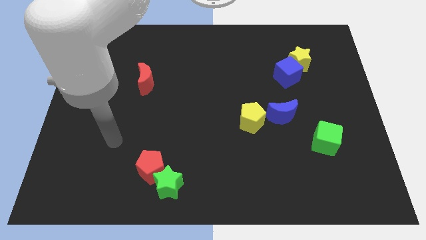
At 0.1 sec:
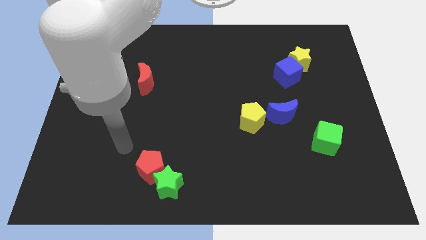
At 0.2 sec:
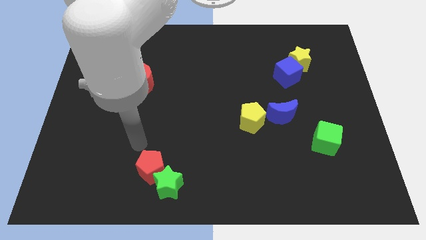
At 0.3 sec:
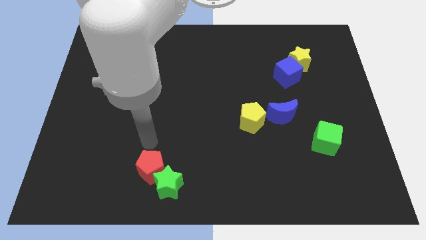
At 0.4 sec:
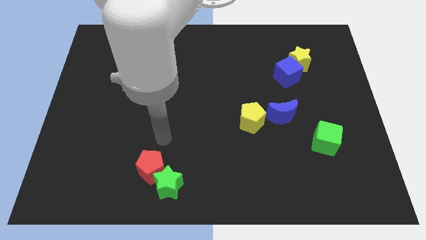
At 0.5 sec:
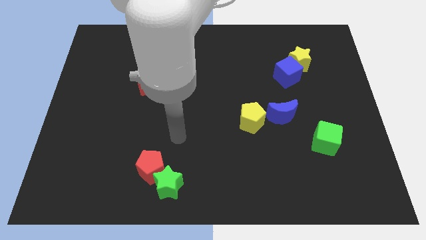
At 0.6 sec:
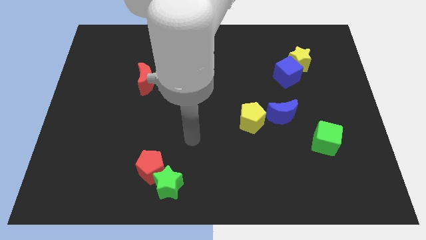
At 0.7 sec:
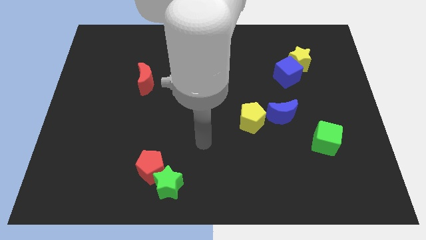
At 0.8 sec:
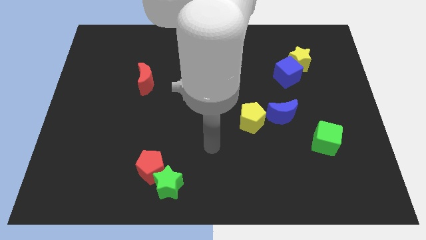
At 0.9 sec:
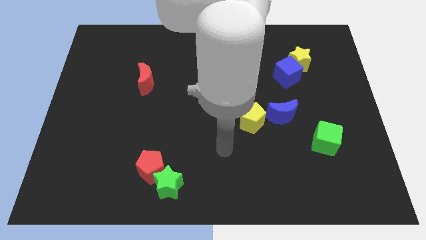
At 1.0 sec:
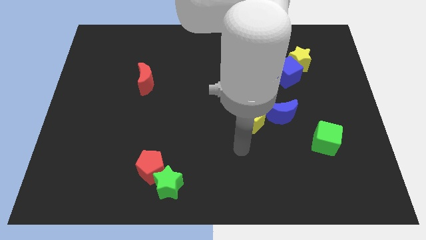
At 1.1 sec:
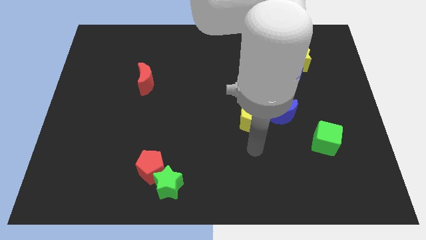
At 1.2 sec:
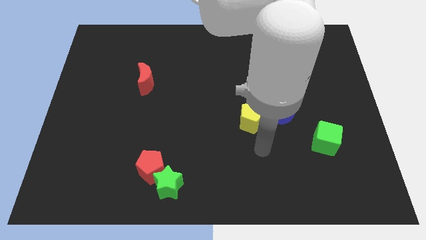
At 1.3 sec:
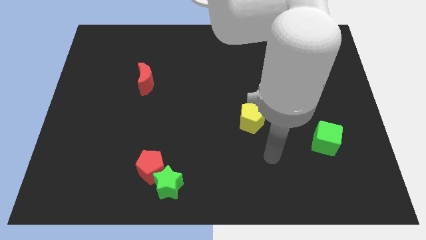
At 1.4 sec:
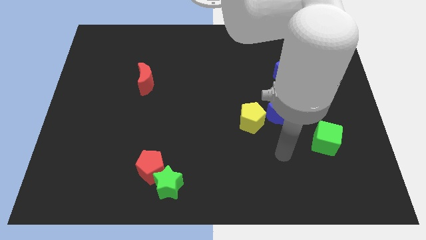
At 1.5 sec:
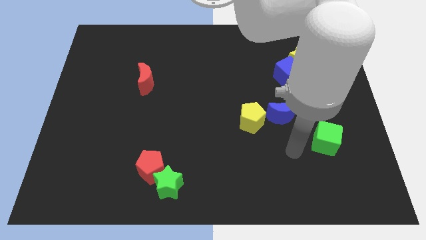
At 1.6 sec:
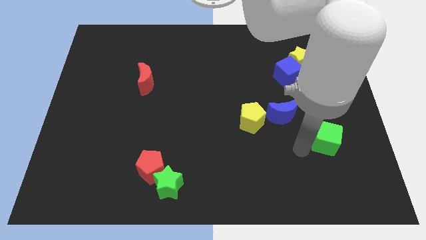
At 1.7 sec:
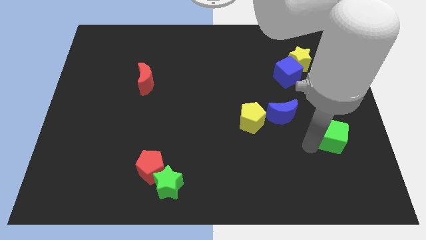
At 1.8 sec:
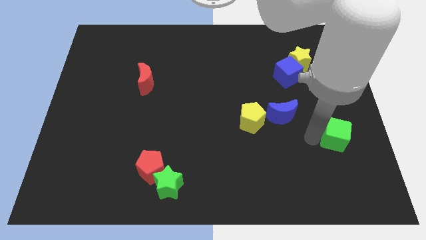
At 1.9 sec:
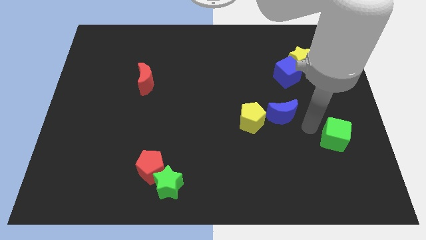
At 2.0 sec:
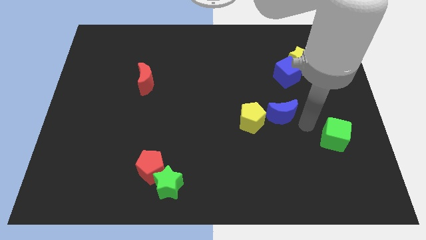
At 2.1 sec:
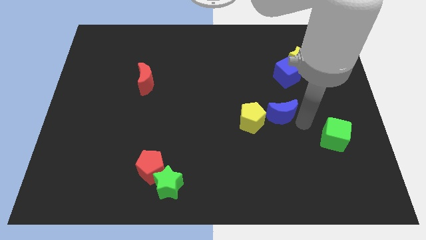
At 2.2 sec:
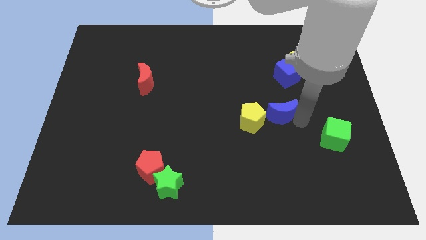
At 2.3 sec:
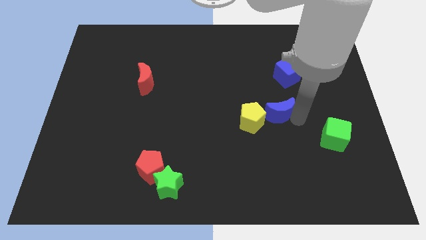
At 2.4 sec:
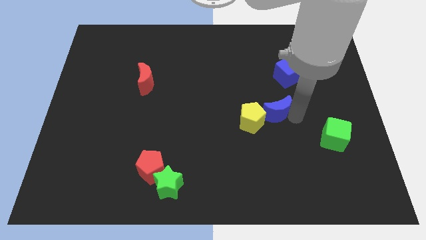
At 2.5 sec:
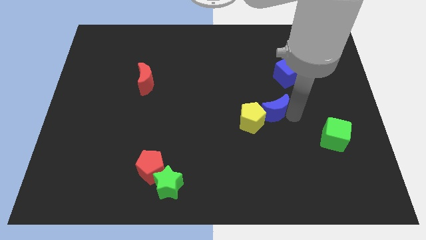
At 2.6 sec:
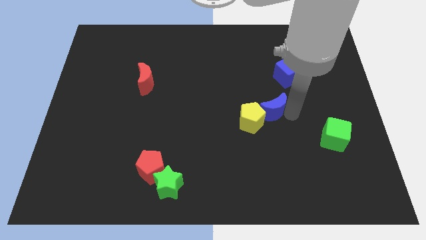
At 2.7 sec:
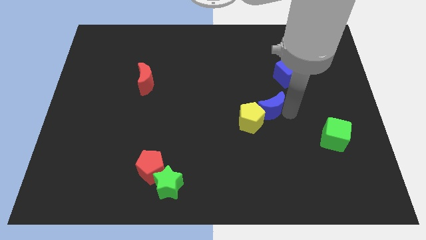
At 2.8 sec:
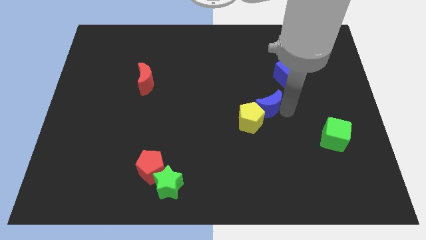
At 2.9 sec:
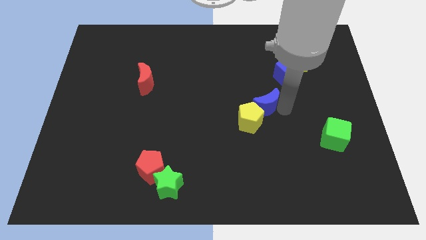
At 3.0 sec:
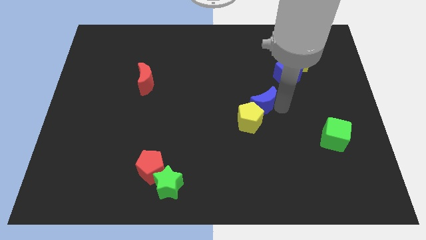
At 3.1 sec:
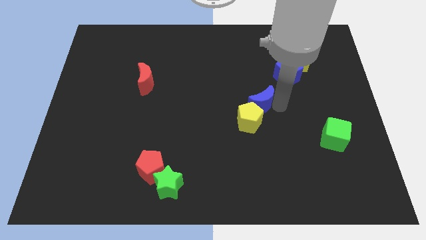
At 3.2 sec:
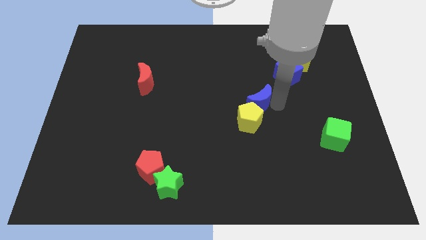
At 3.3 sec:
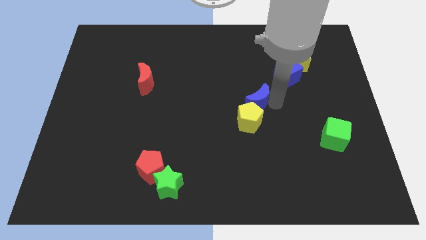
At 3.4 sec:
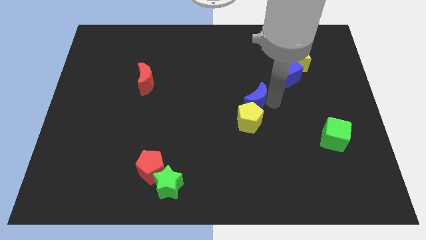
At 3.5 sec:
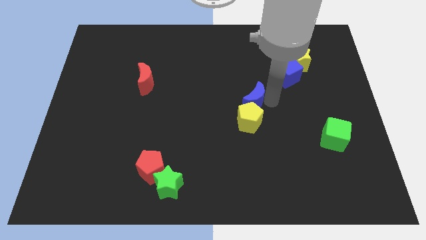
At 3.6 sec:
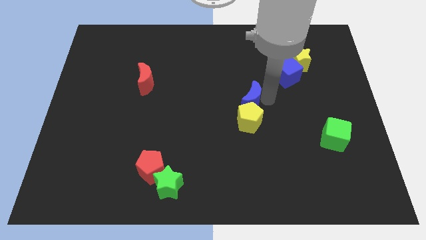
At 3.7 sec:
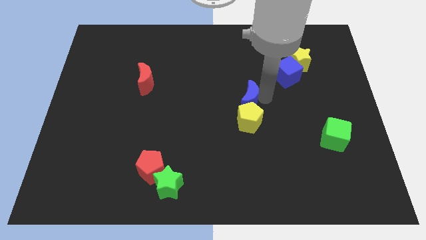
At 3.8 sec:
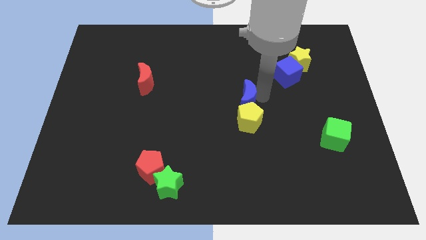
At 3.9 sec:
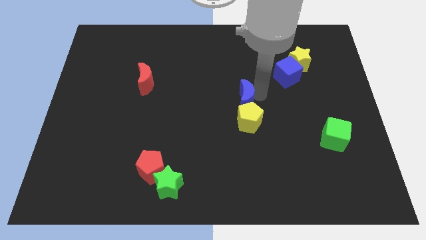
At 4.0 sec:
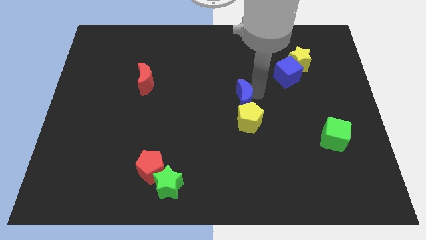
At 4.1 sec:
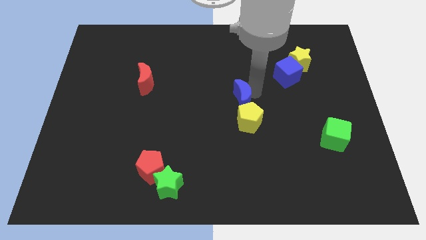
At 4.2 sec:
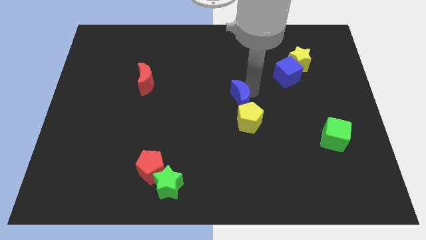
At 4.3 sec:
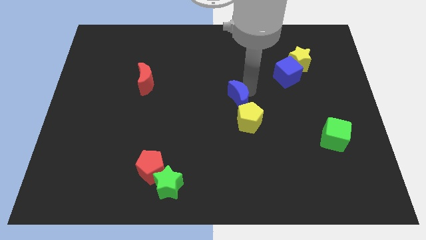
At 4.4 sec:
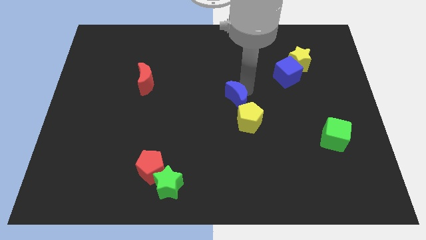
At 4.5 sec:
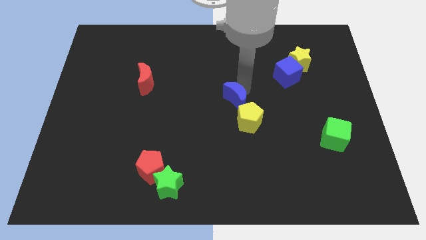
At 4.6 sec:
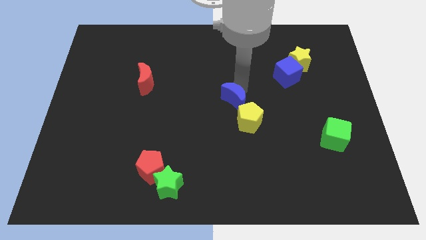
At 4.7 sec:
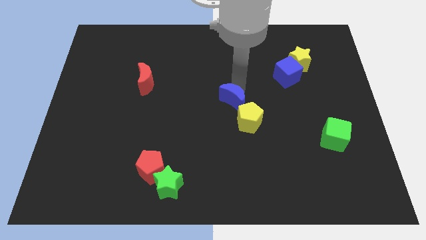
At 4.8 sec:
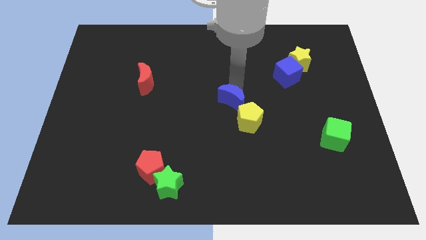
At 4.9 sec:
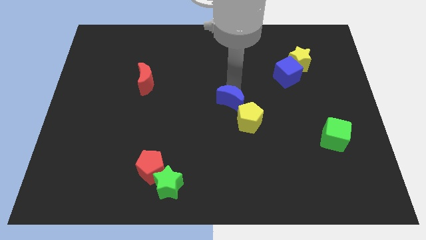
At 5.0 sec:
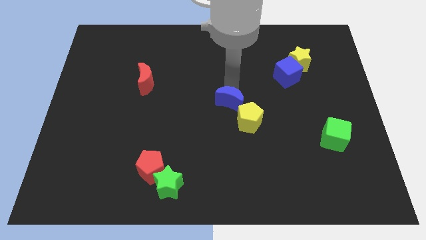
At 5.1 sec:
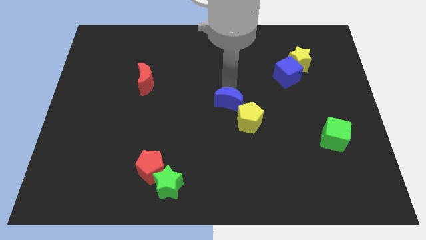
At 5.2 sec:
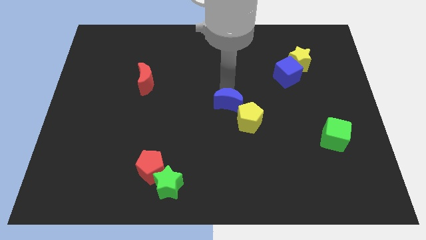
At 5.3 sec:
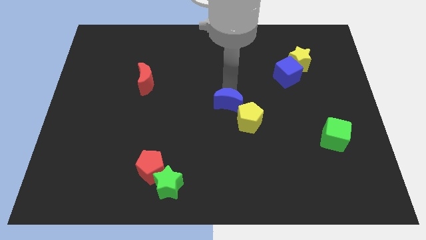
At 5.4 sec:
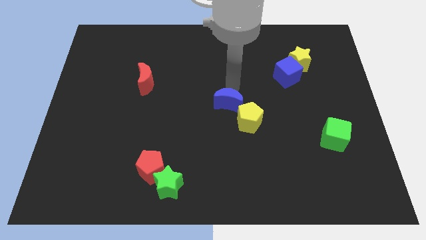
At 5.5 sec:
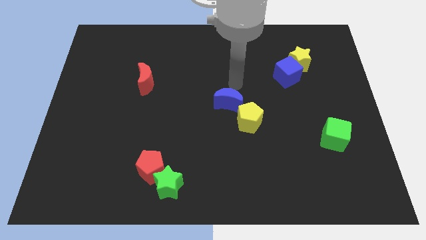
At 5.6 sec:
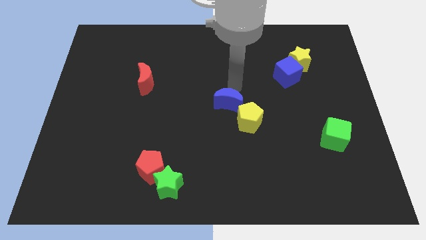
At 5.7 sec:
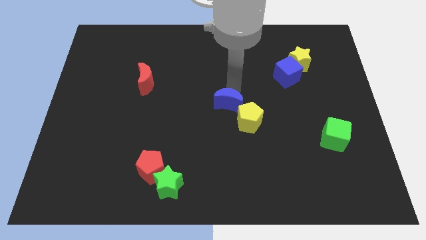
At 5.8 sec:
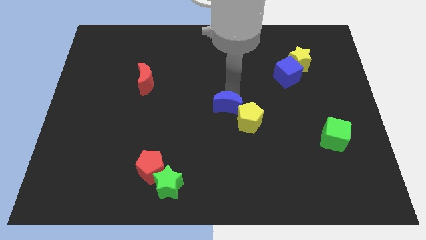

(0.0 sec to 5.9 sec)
slide the blue moon just left of the yellow pentagon

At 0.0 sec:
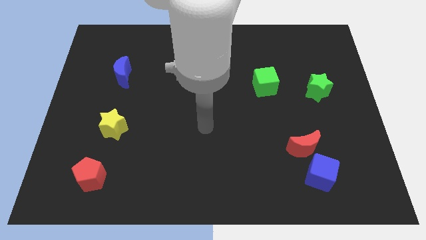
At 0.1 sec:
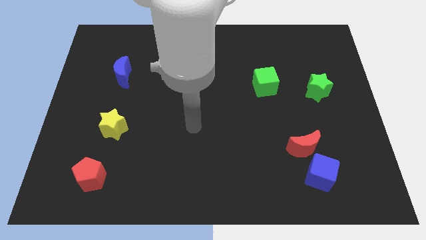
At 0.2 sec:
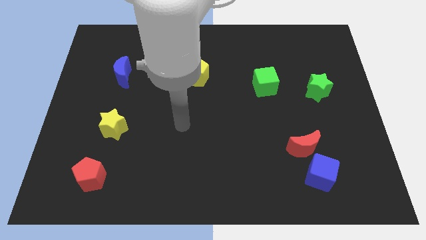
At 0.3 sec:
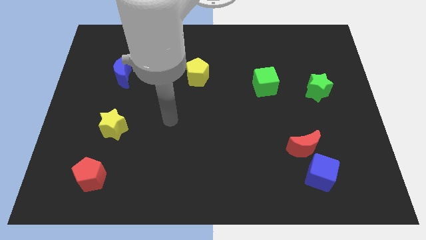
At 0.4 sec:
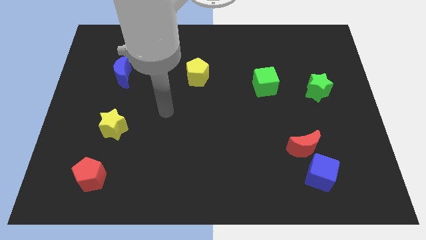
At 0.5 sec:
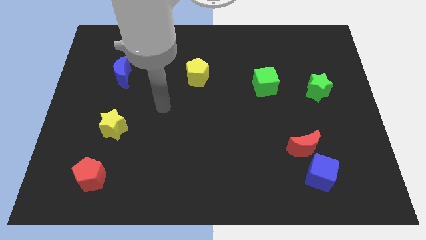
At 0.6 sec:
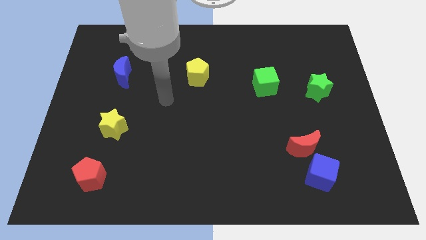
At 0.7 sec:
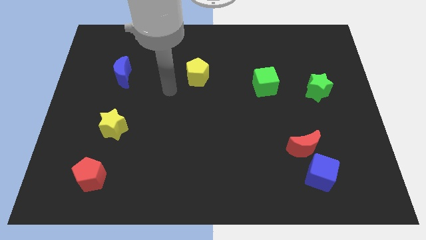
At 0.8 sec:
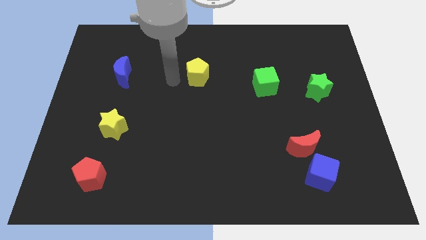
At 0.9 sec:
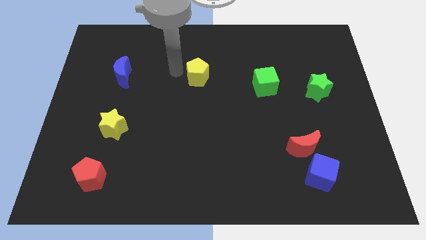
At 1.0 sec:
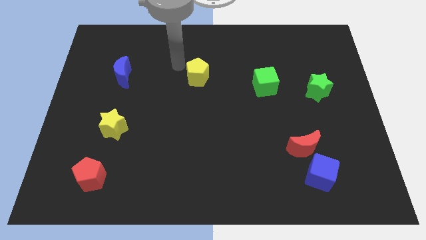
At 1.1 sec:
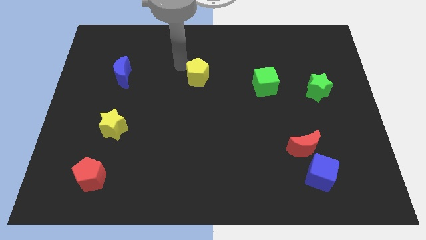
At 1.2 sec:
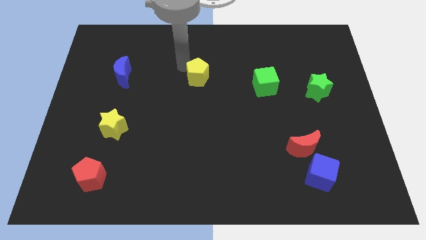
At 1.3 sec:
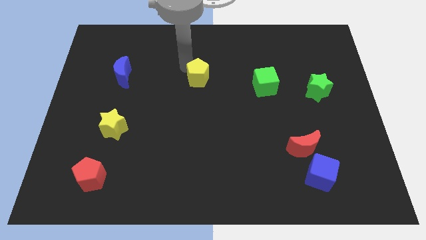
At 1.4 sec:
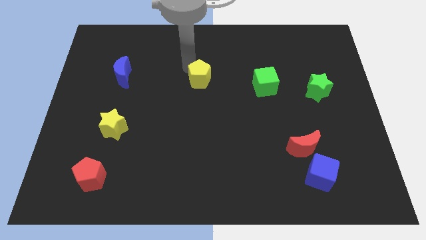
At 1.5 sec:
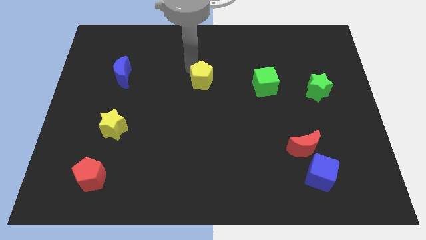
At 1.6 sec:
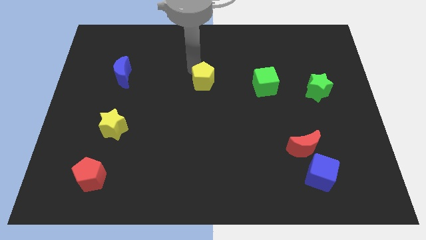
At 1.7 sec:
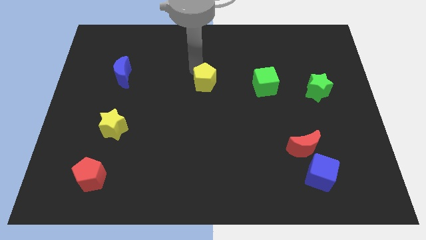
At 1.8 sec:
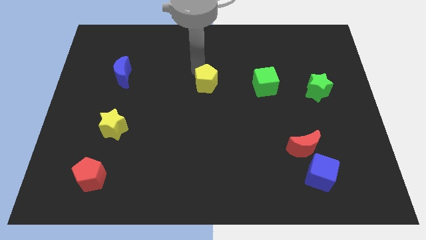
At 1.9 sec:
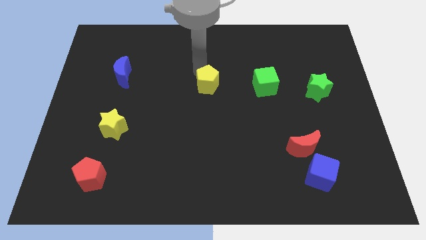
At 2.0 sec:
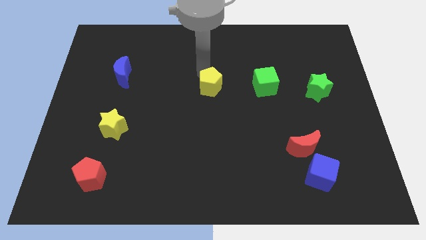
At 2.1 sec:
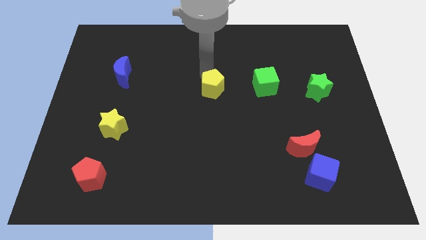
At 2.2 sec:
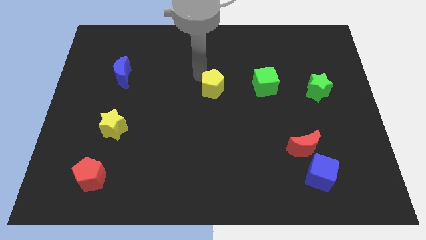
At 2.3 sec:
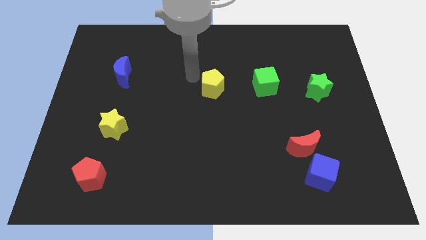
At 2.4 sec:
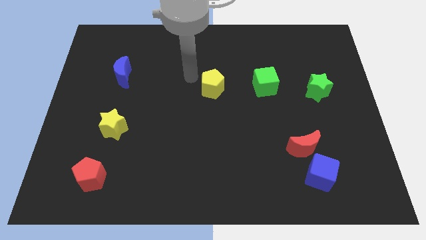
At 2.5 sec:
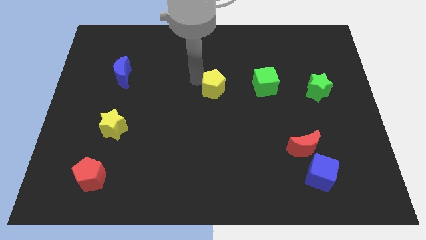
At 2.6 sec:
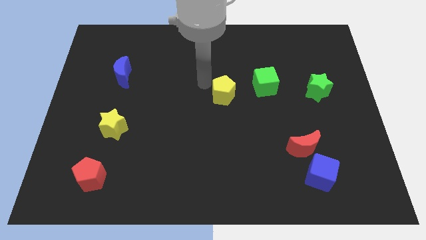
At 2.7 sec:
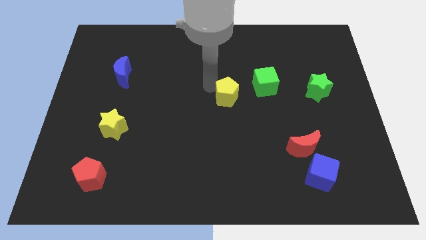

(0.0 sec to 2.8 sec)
put the yellow pentagon to the bottom left of the green cube
